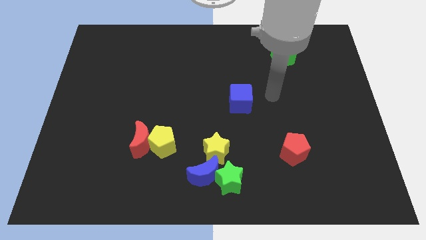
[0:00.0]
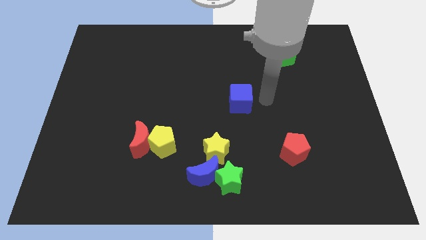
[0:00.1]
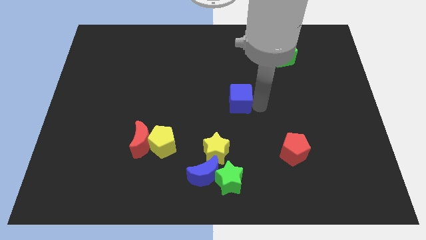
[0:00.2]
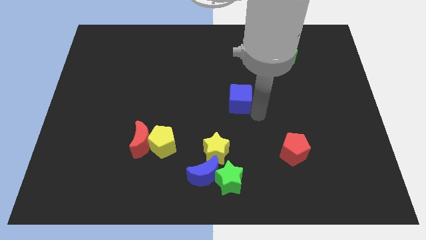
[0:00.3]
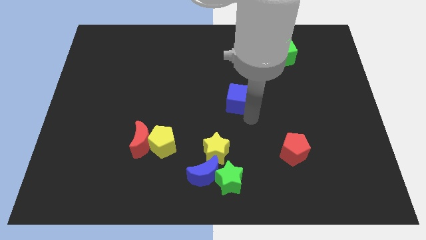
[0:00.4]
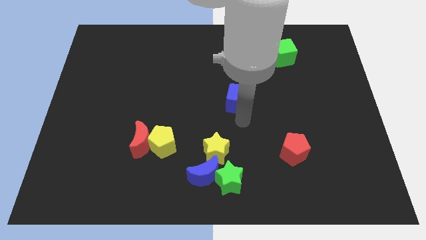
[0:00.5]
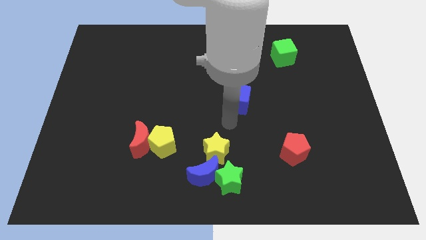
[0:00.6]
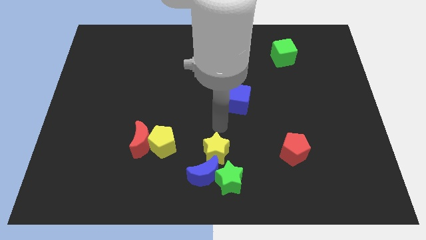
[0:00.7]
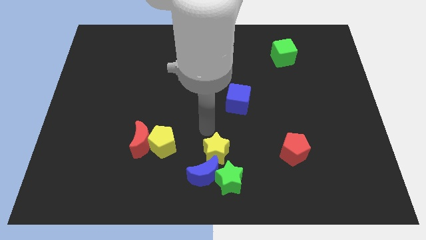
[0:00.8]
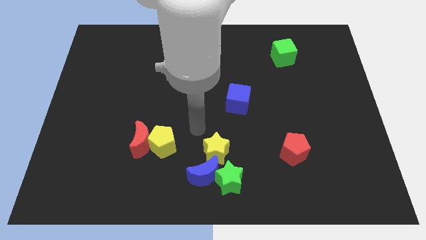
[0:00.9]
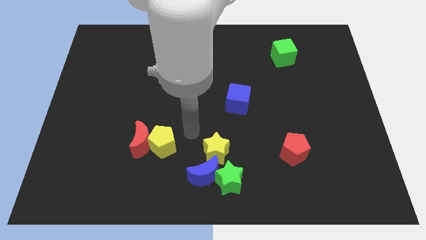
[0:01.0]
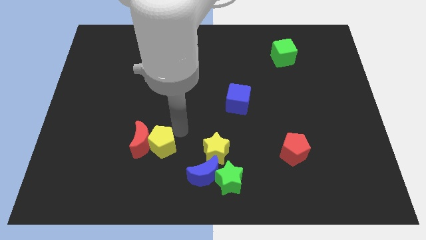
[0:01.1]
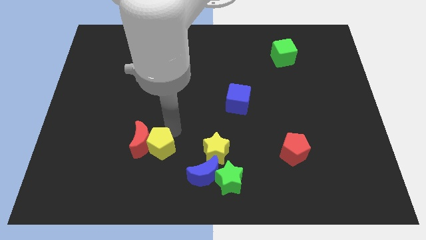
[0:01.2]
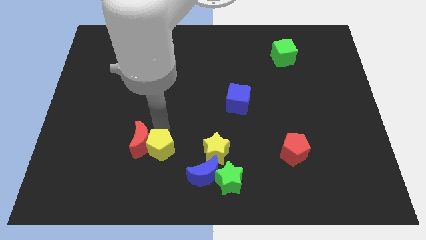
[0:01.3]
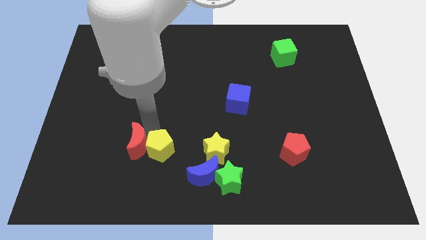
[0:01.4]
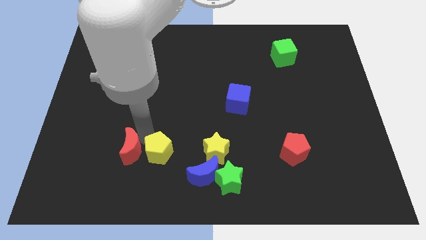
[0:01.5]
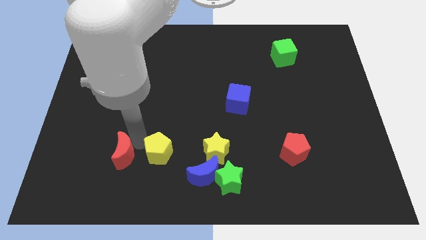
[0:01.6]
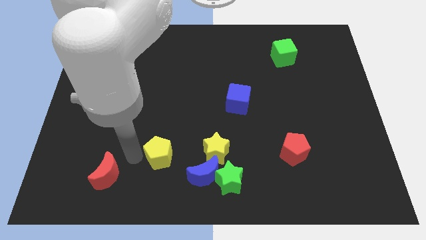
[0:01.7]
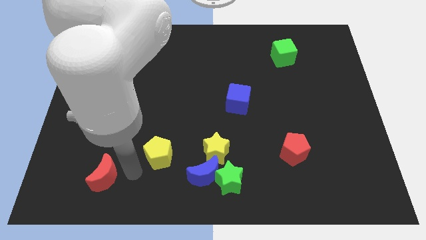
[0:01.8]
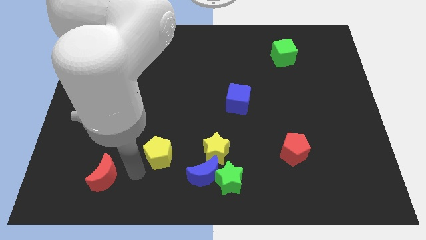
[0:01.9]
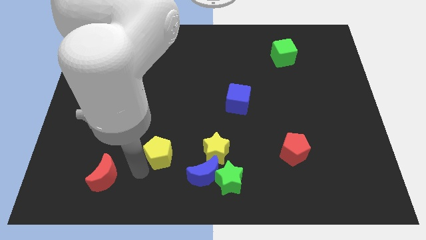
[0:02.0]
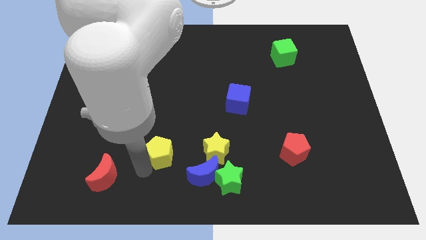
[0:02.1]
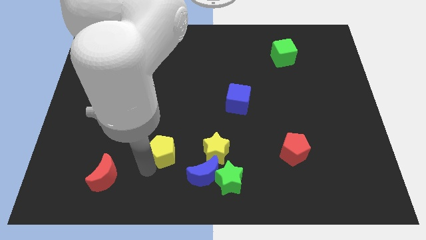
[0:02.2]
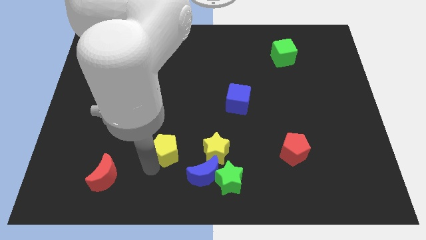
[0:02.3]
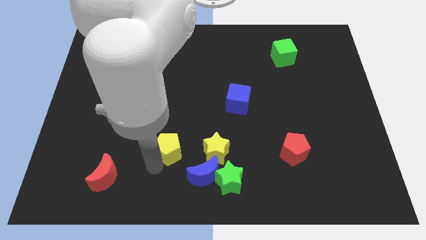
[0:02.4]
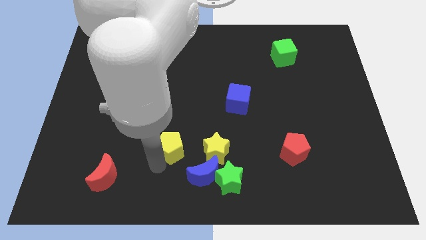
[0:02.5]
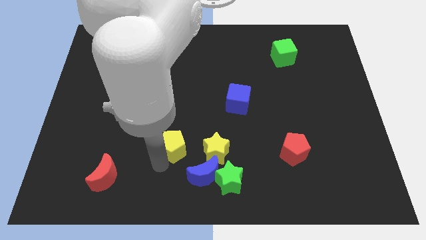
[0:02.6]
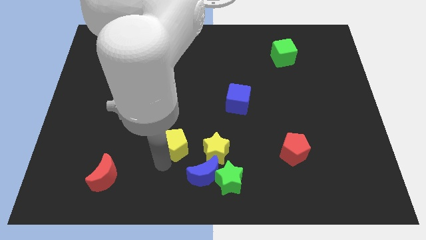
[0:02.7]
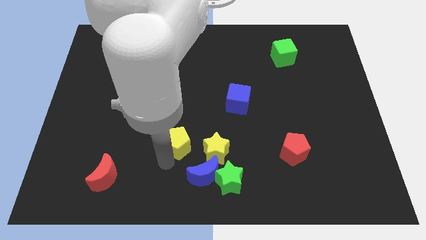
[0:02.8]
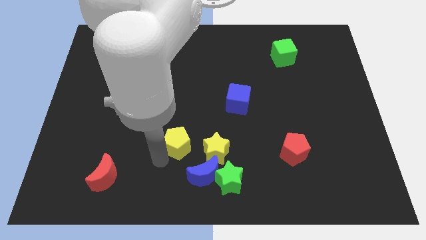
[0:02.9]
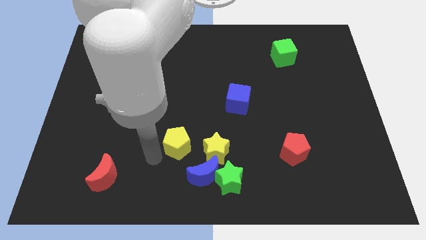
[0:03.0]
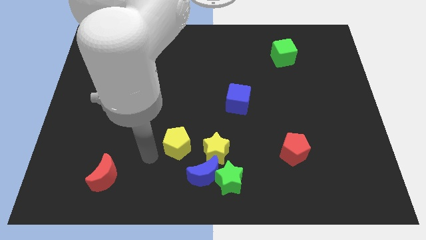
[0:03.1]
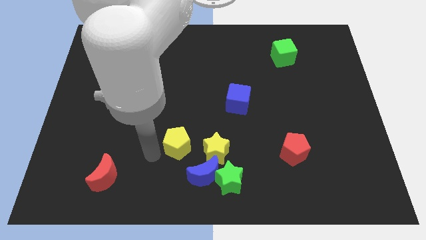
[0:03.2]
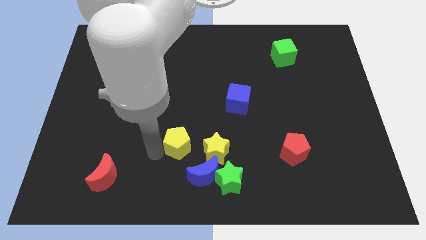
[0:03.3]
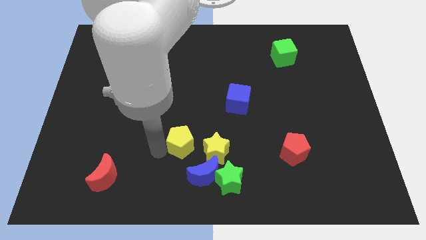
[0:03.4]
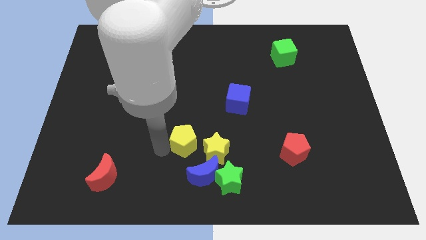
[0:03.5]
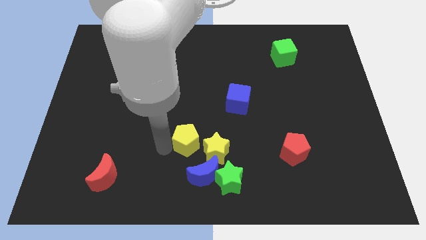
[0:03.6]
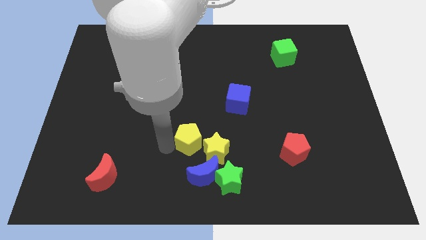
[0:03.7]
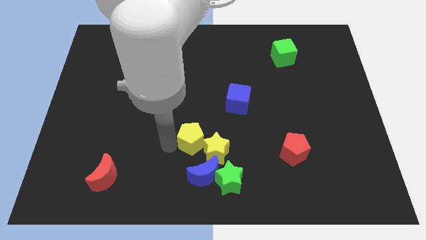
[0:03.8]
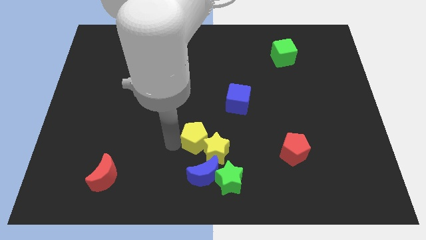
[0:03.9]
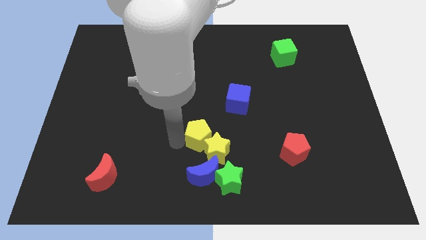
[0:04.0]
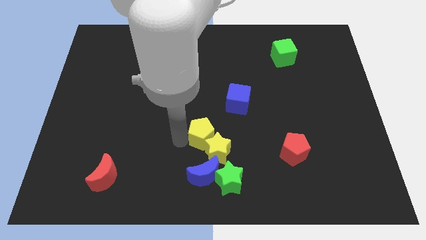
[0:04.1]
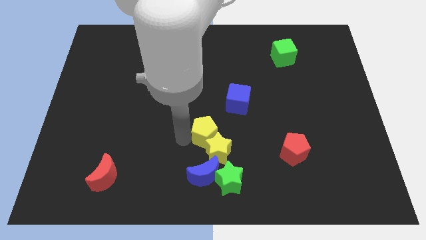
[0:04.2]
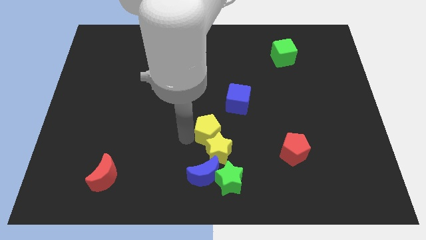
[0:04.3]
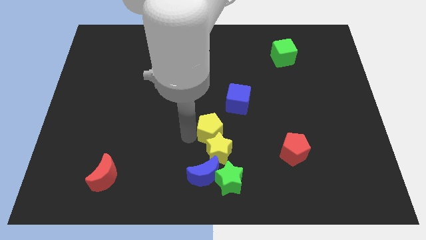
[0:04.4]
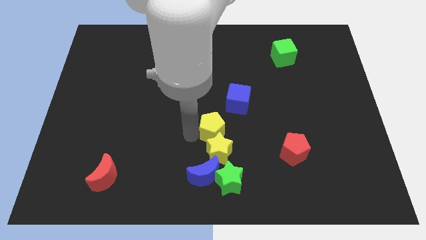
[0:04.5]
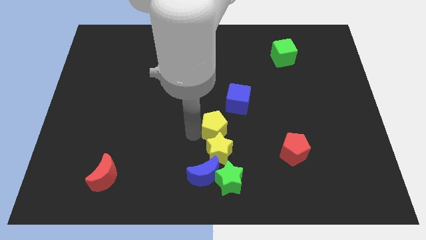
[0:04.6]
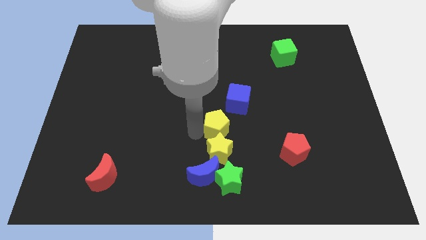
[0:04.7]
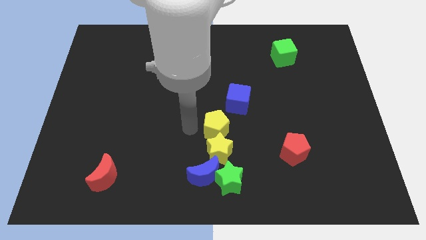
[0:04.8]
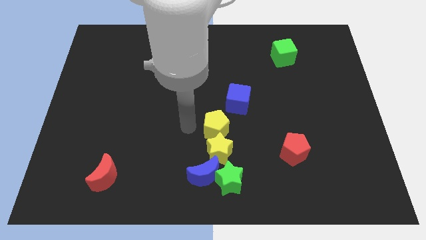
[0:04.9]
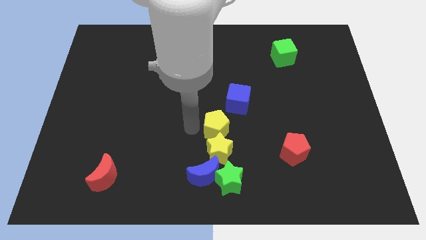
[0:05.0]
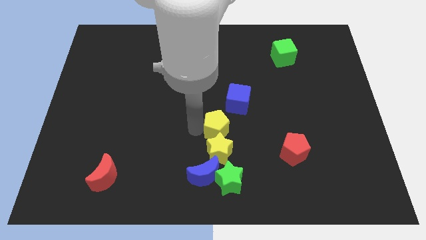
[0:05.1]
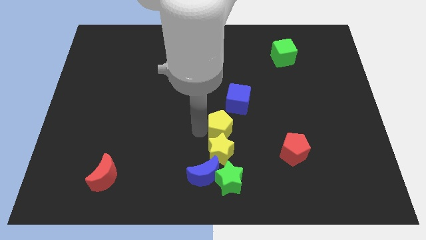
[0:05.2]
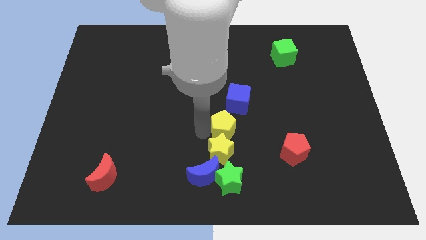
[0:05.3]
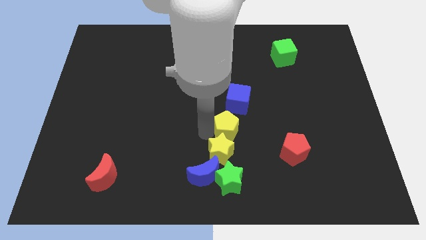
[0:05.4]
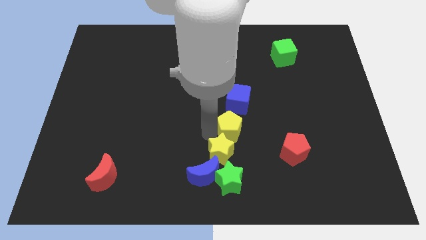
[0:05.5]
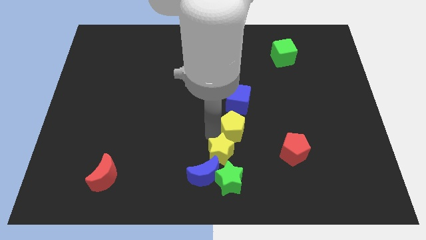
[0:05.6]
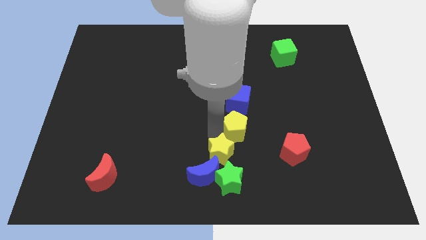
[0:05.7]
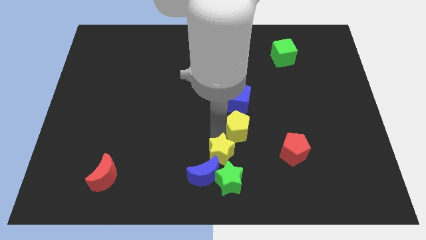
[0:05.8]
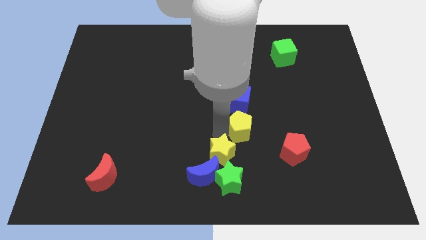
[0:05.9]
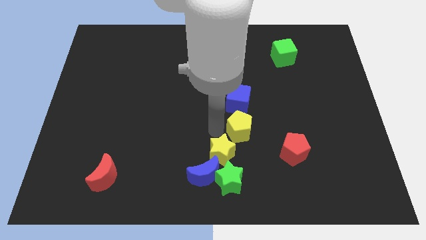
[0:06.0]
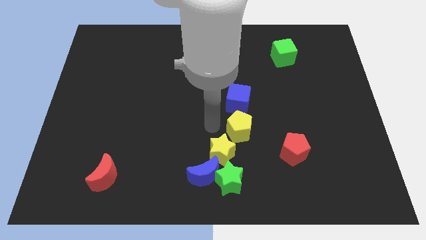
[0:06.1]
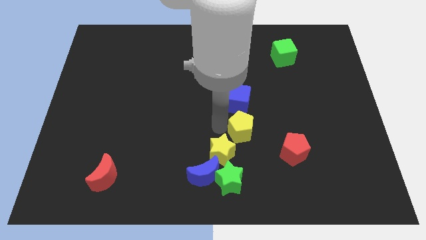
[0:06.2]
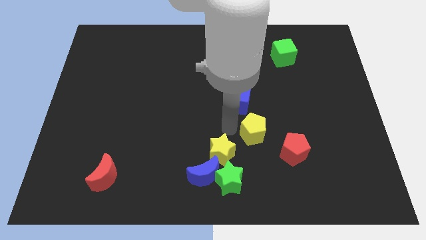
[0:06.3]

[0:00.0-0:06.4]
slide the yellow pentagon to the right

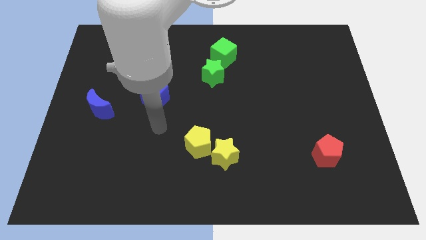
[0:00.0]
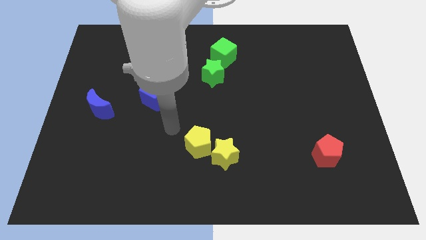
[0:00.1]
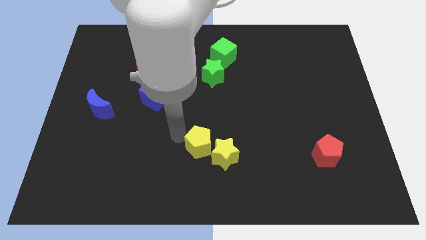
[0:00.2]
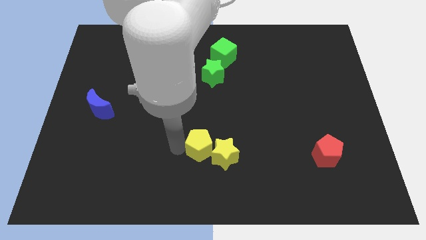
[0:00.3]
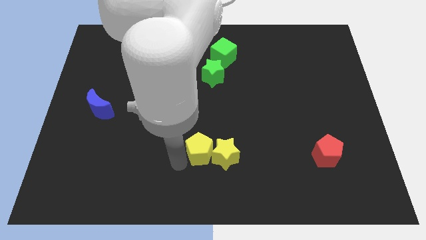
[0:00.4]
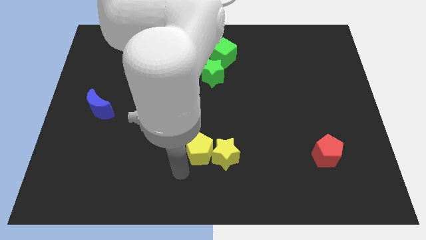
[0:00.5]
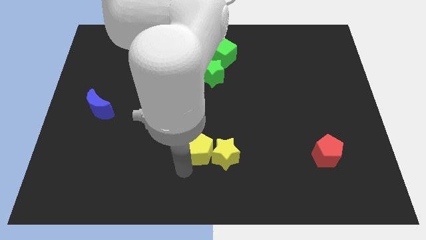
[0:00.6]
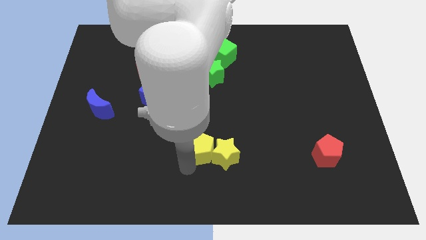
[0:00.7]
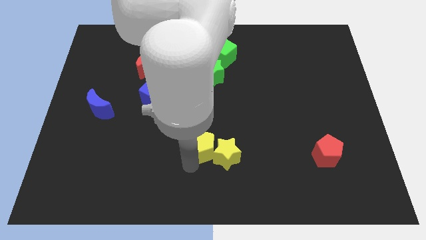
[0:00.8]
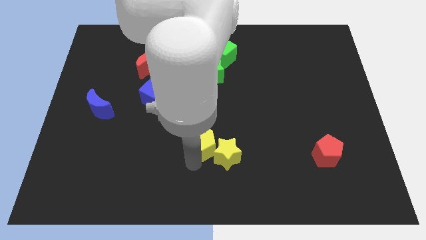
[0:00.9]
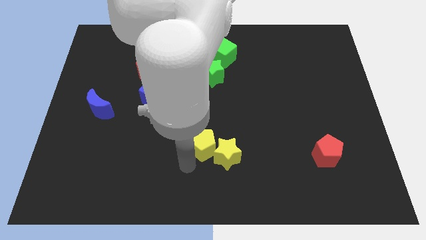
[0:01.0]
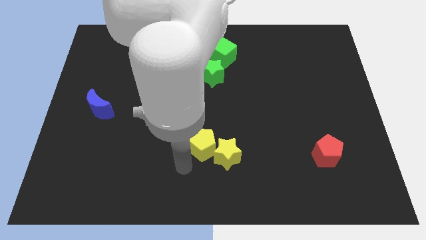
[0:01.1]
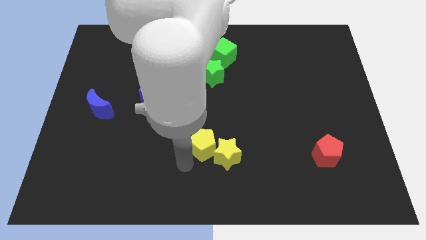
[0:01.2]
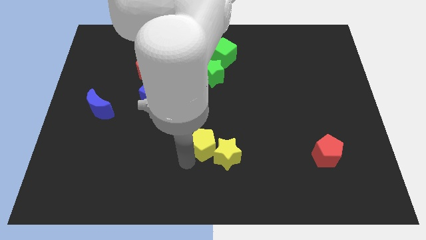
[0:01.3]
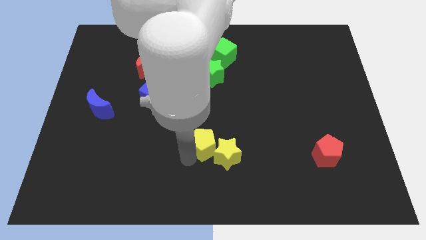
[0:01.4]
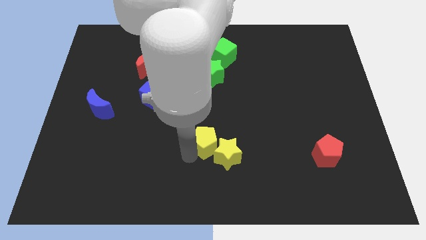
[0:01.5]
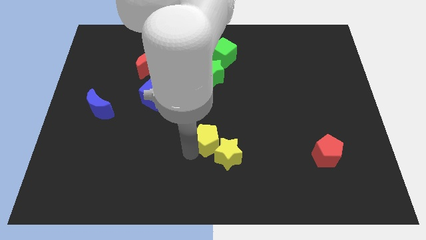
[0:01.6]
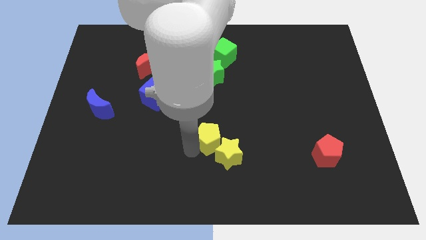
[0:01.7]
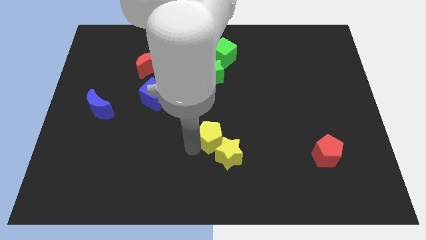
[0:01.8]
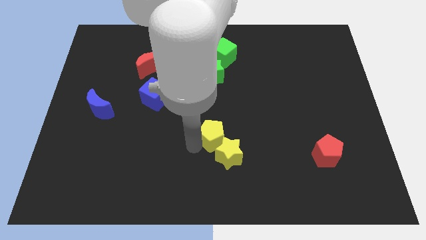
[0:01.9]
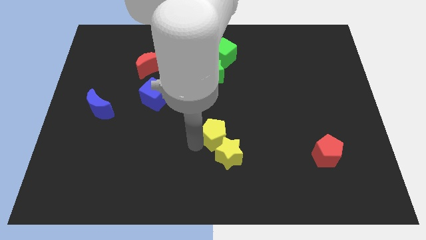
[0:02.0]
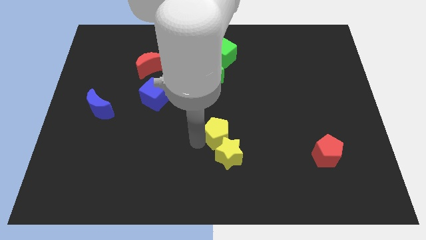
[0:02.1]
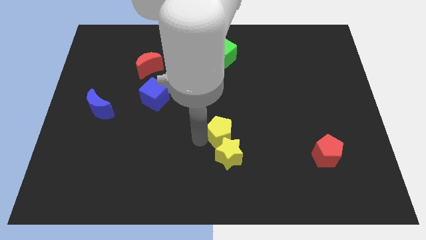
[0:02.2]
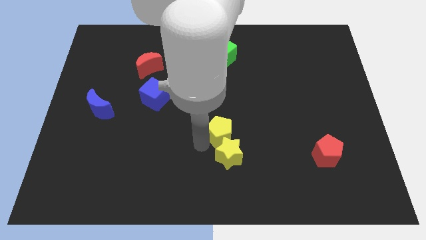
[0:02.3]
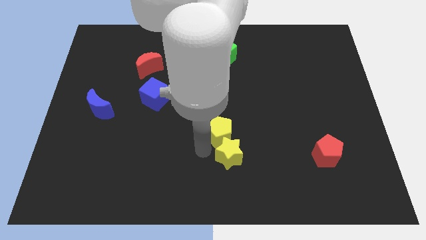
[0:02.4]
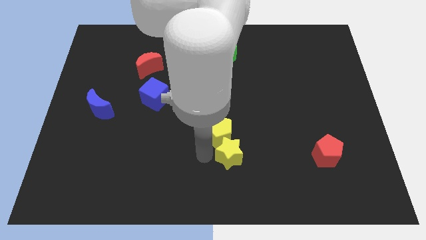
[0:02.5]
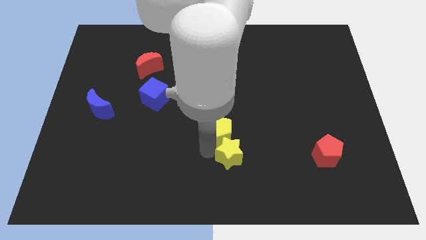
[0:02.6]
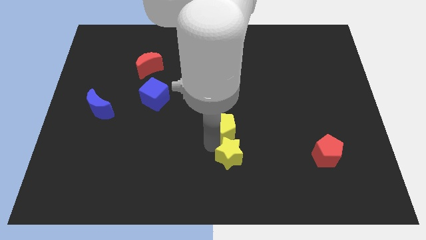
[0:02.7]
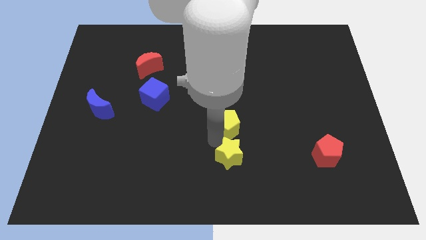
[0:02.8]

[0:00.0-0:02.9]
slightly slide the yellow pentagon diagonally upwards and right
